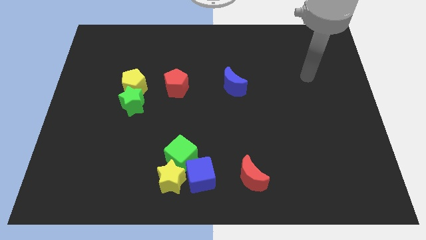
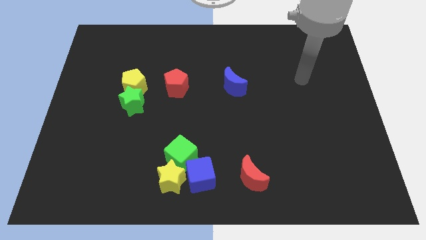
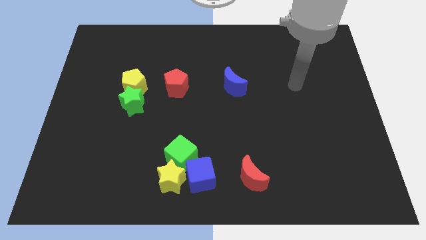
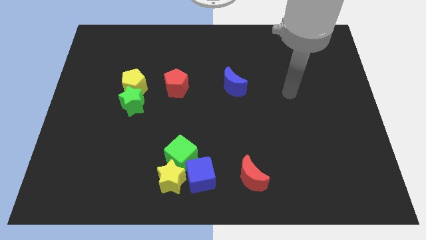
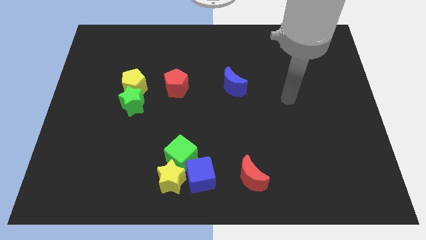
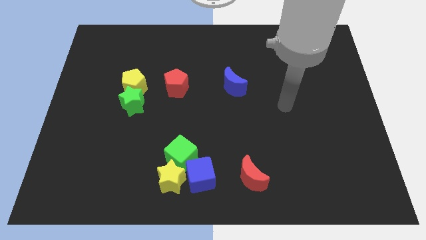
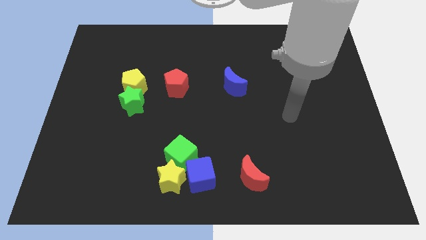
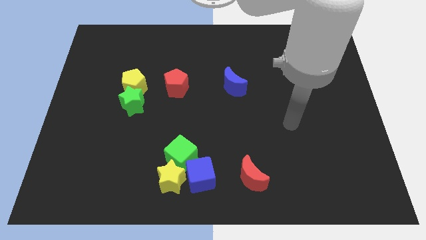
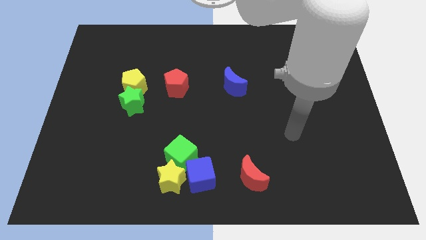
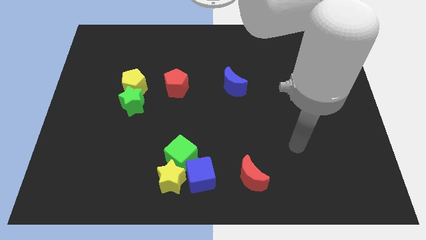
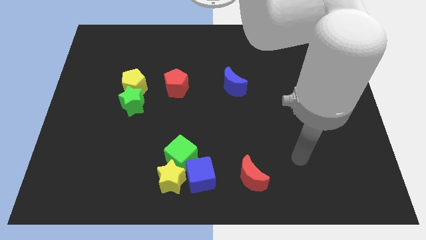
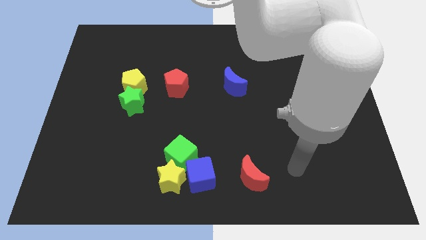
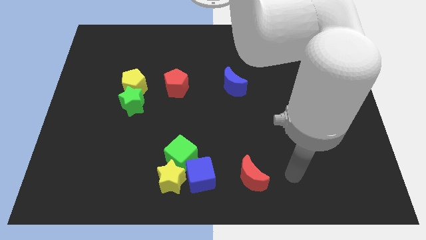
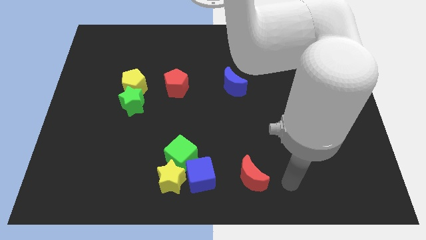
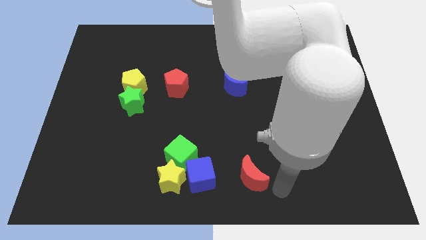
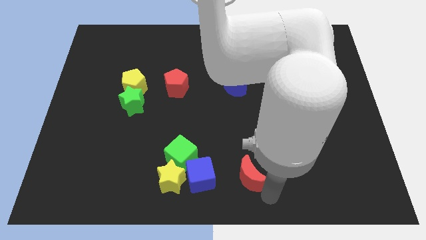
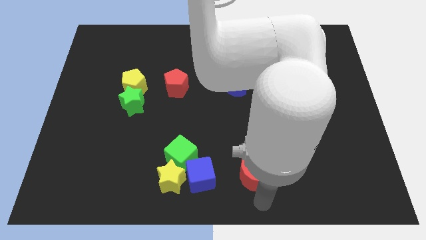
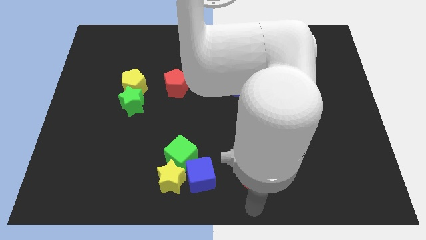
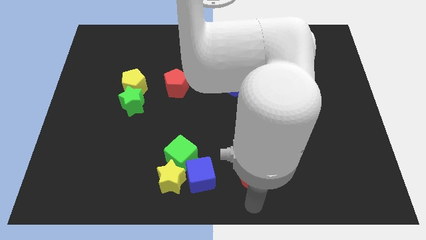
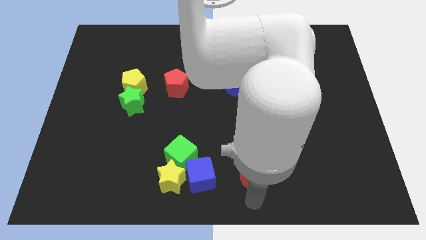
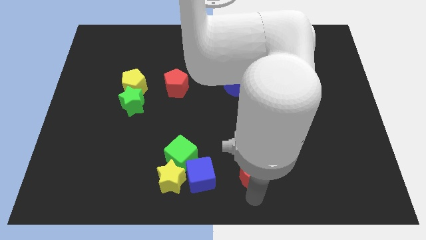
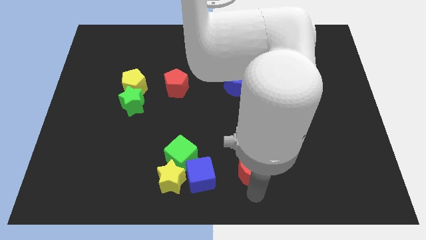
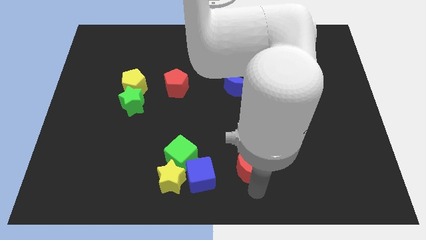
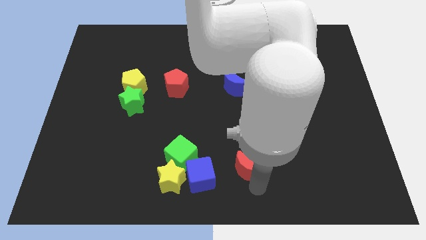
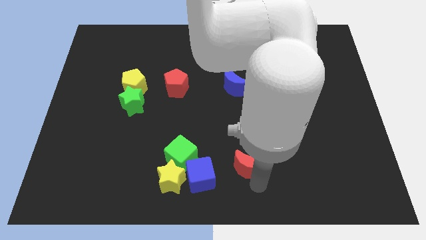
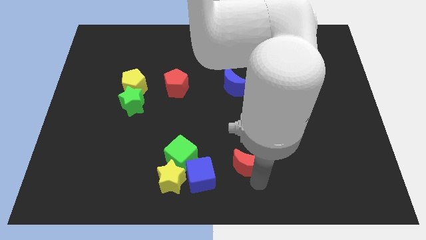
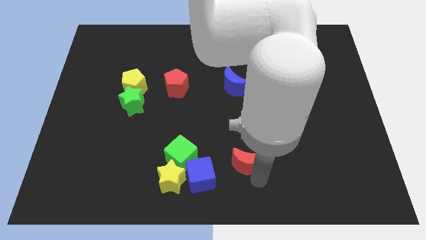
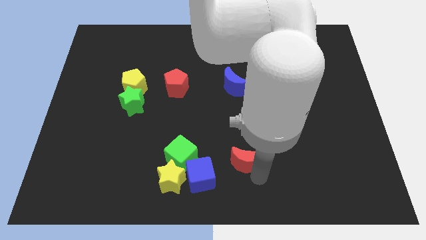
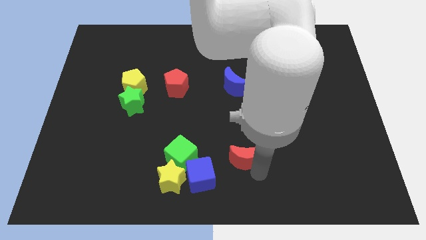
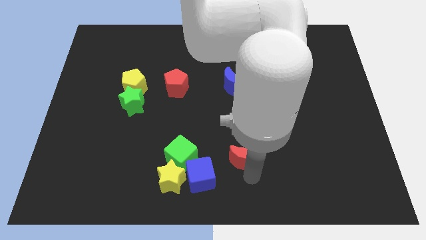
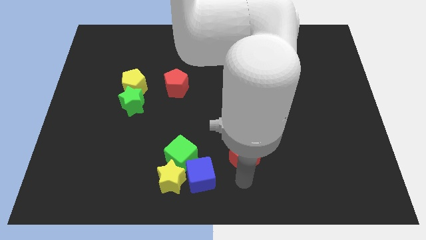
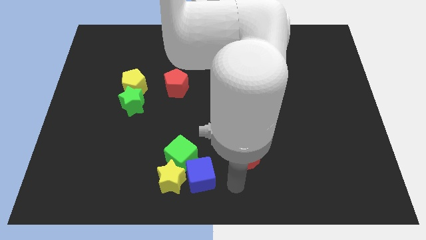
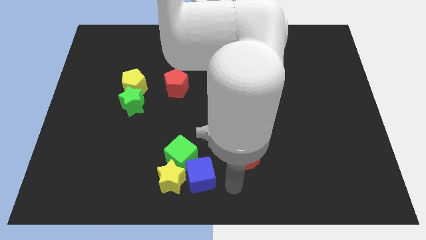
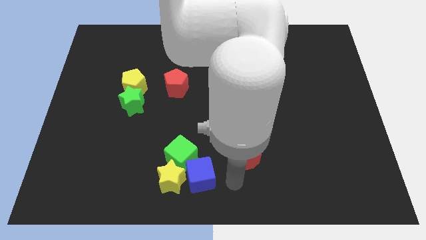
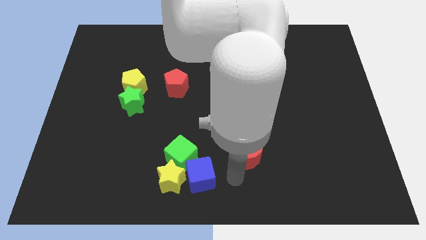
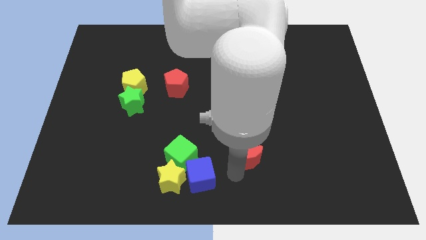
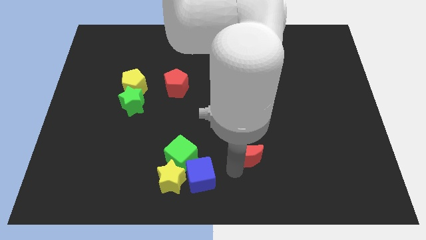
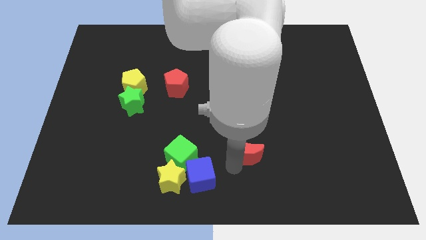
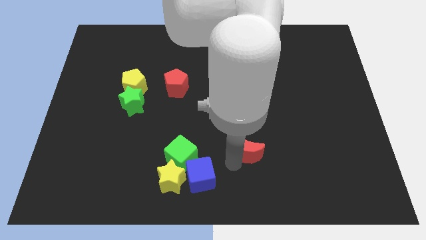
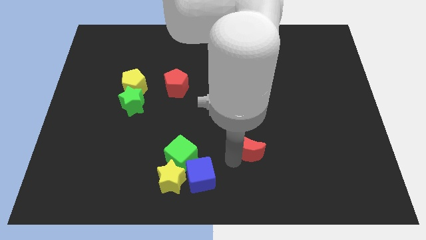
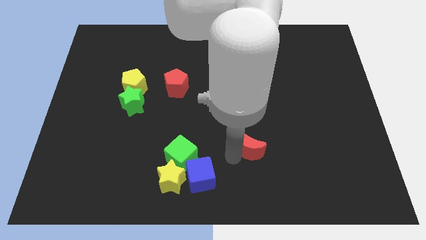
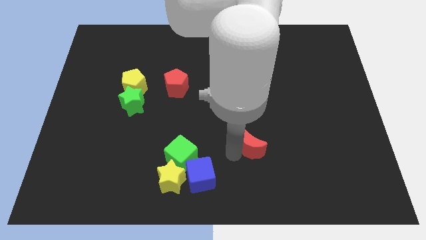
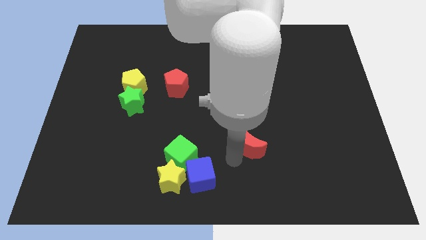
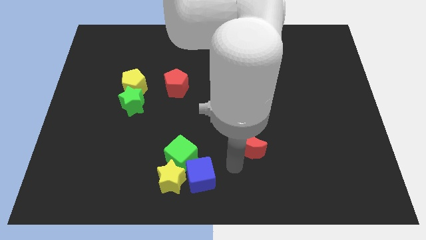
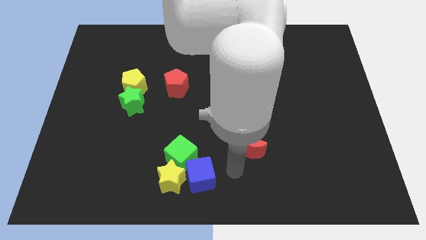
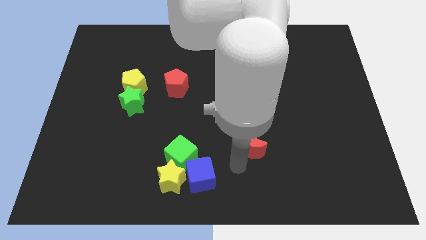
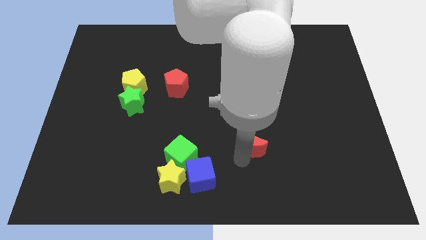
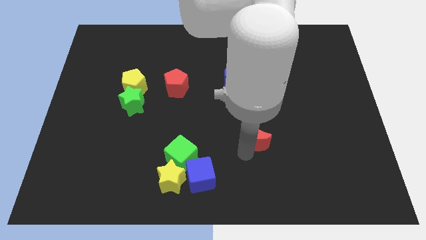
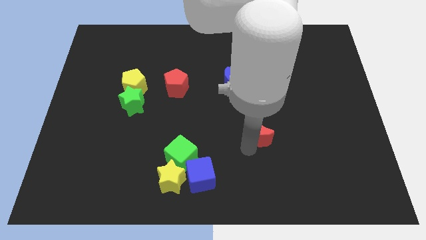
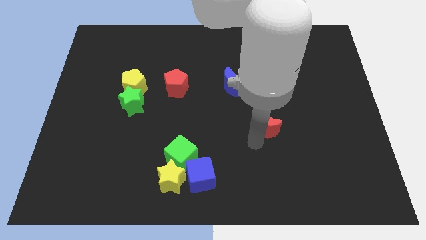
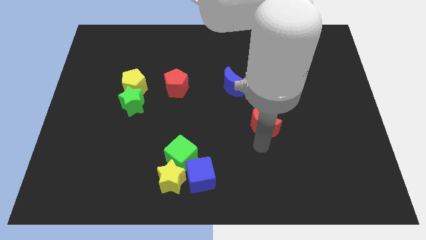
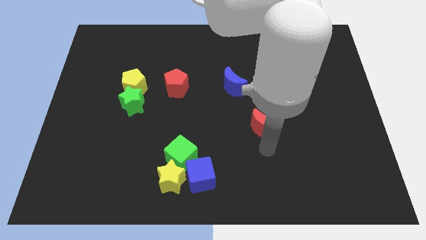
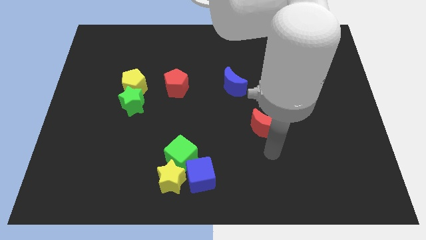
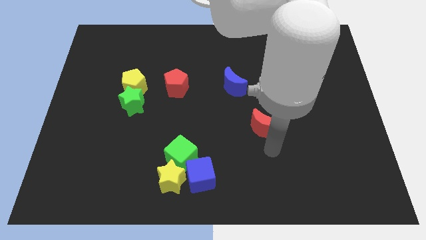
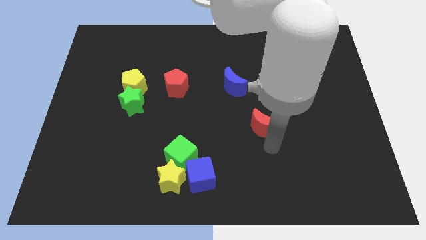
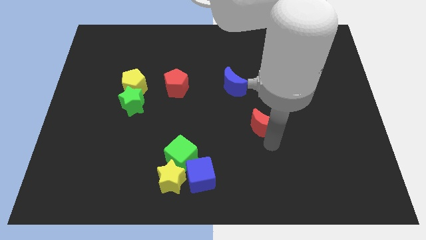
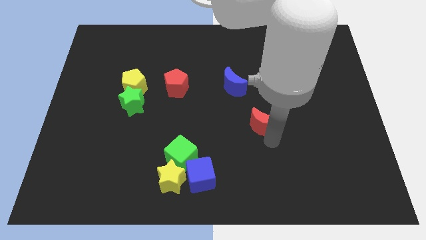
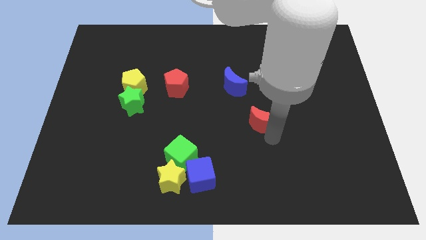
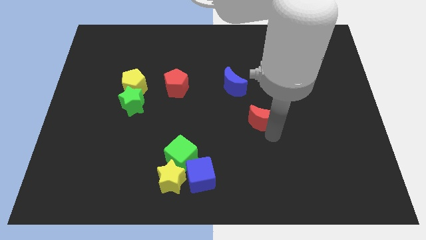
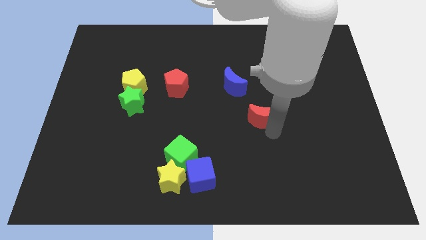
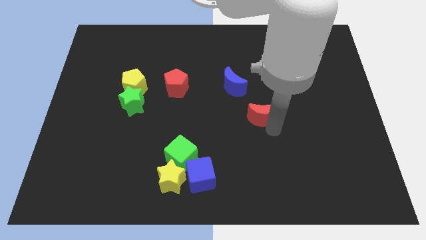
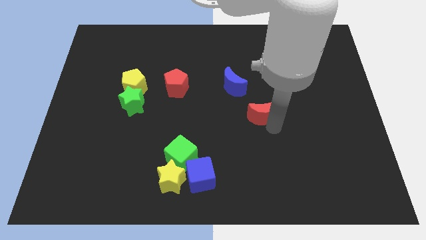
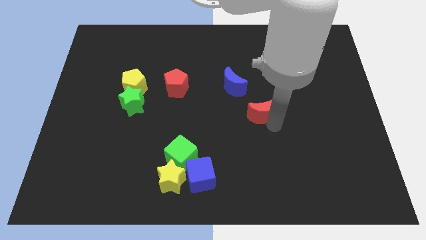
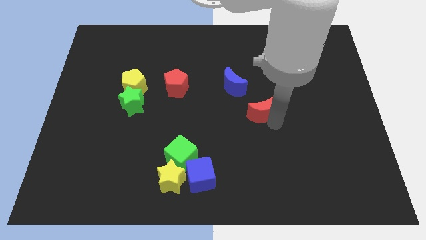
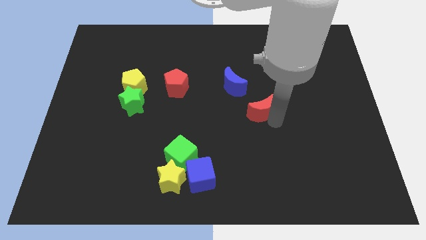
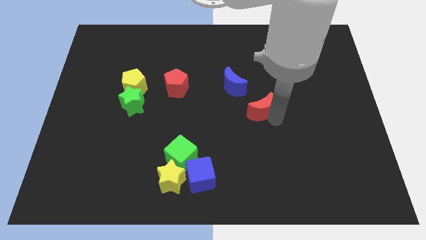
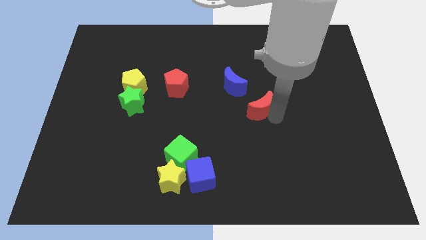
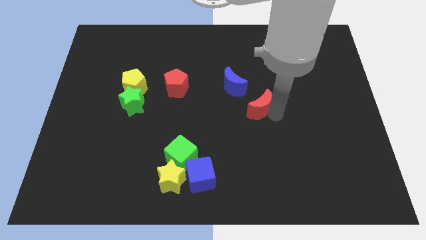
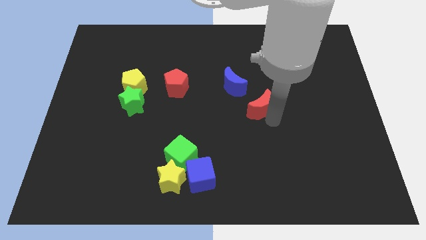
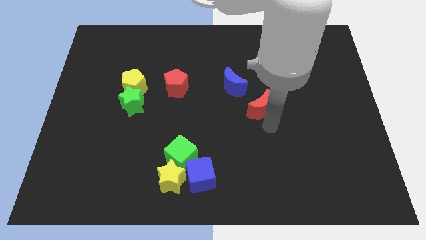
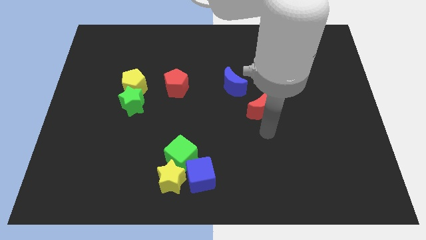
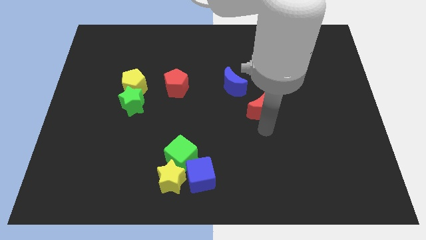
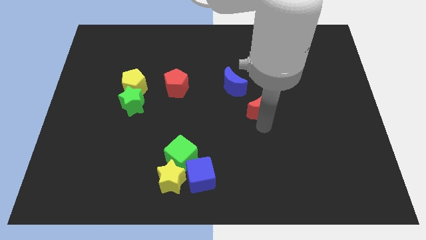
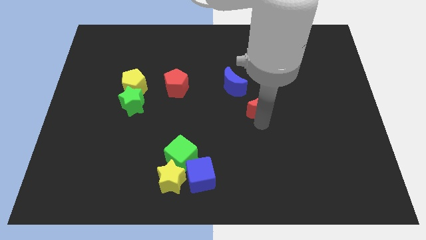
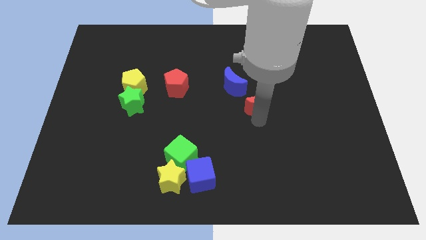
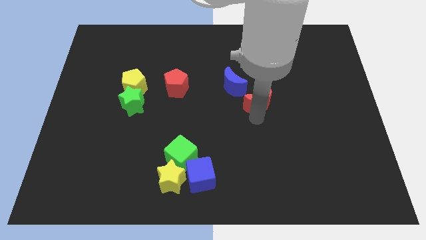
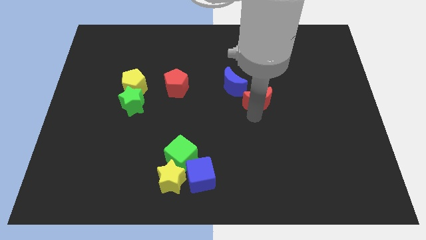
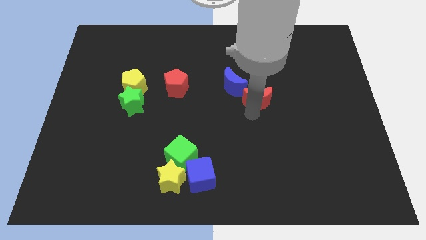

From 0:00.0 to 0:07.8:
move the red moon upwards

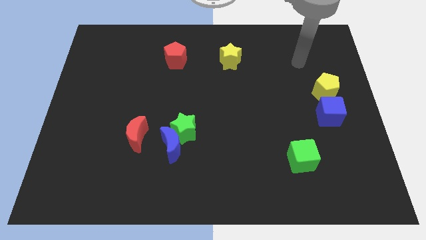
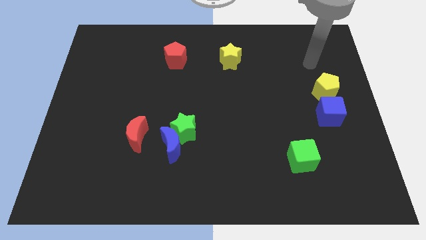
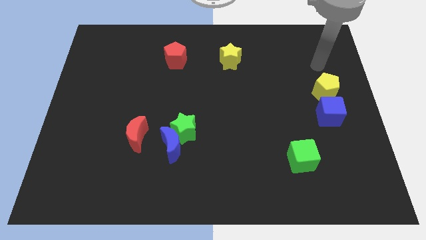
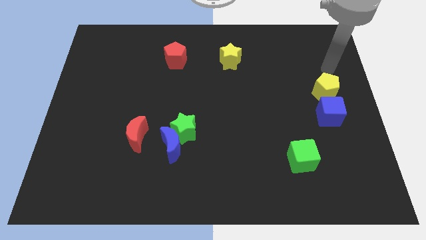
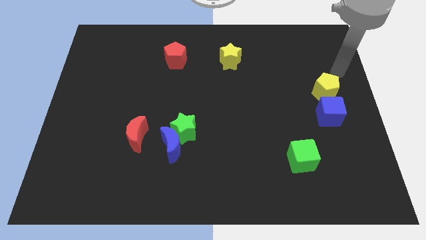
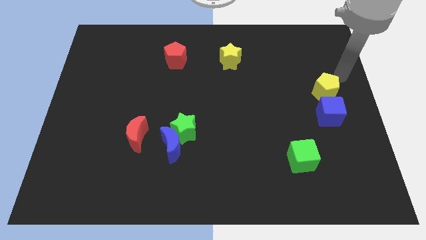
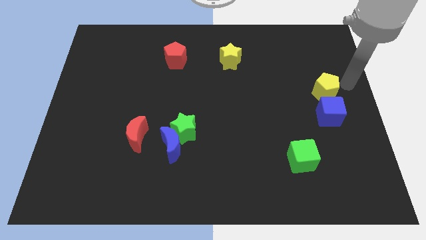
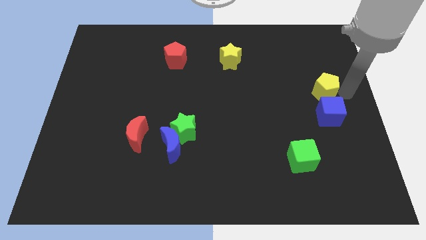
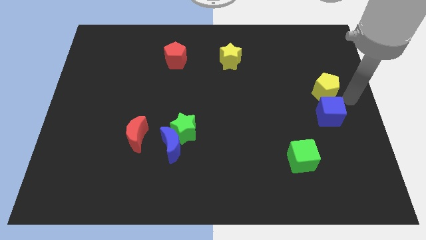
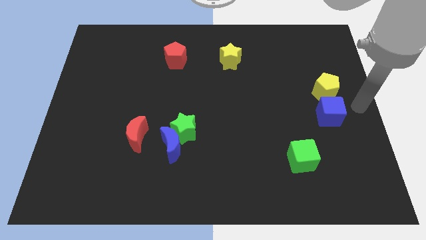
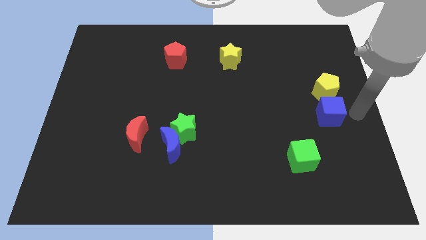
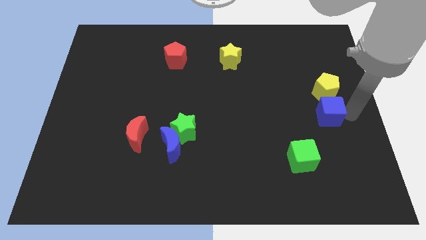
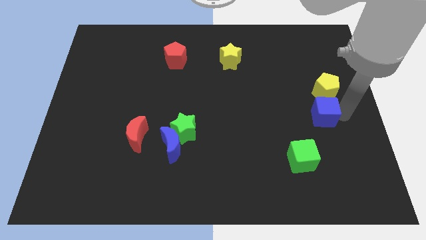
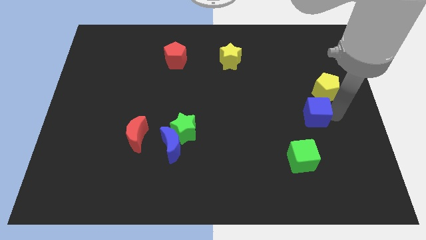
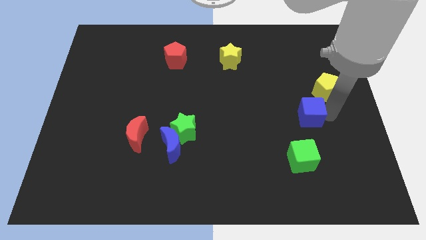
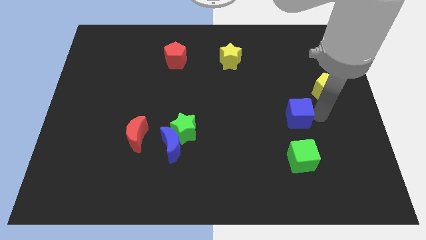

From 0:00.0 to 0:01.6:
push the blue cube a little to the left
